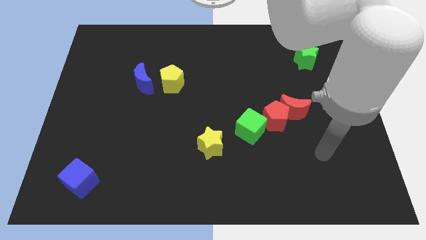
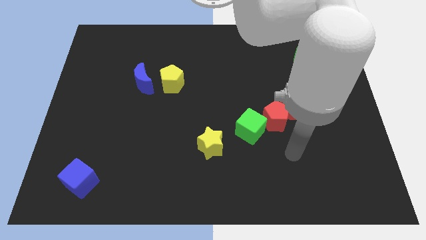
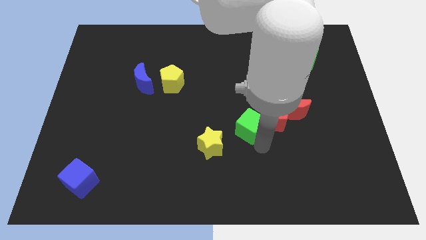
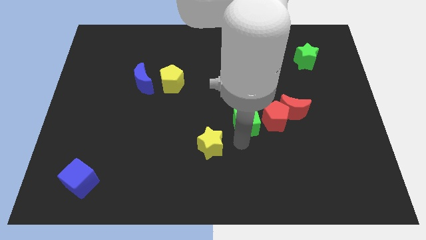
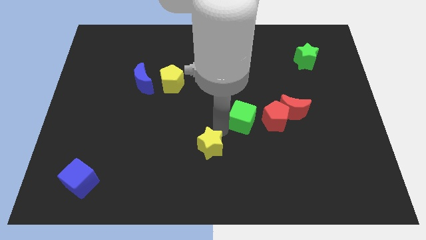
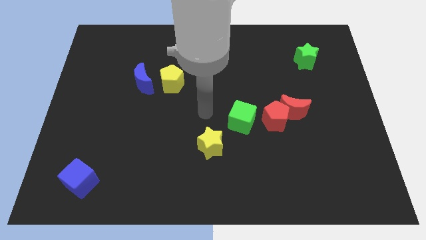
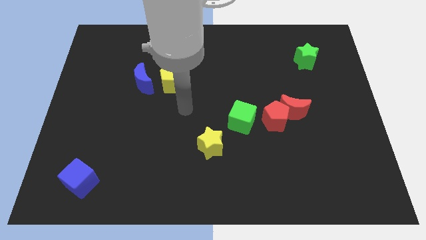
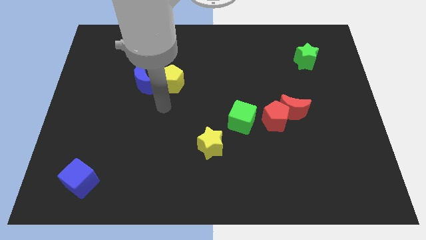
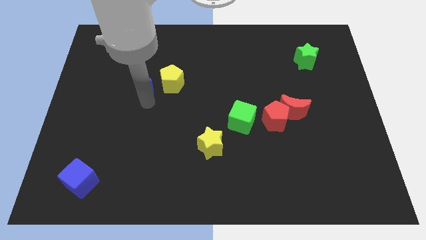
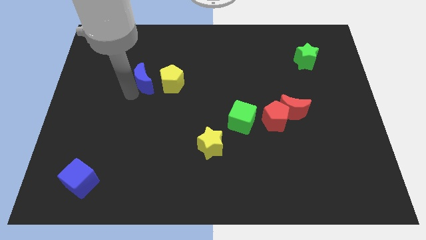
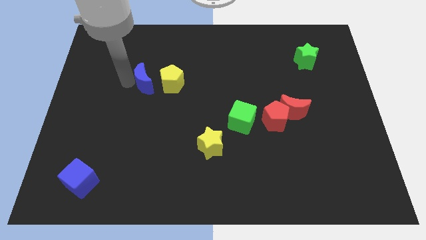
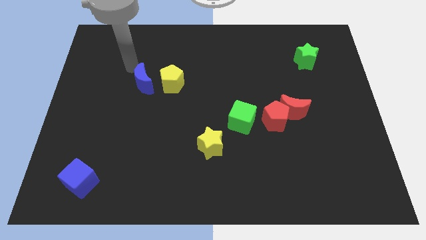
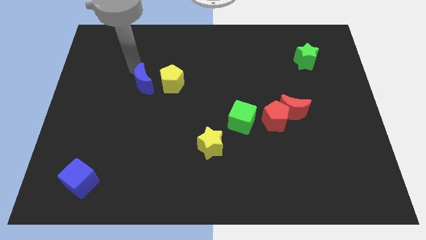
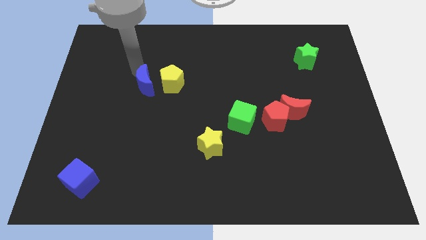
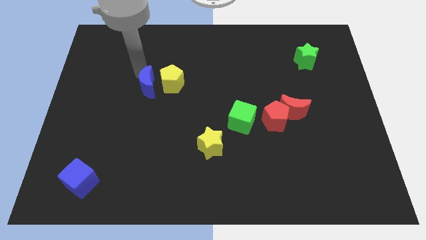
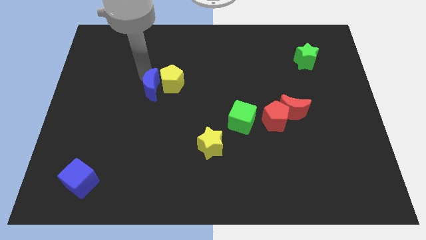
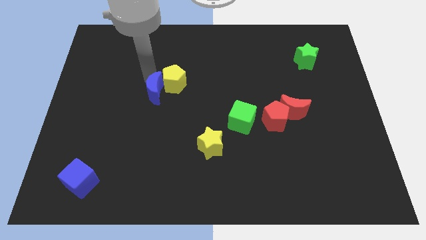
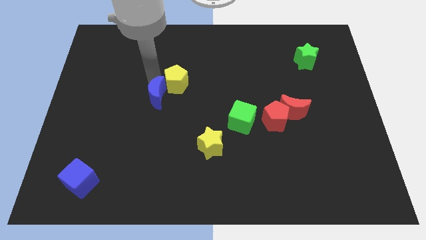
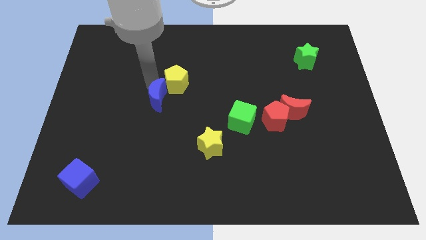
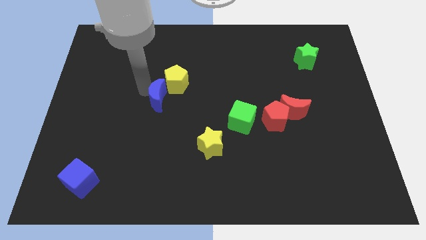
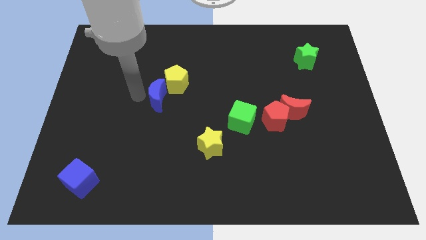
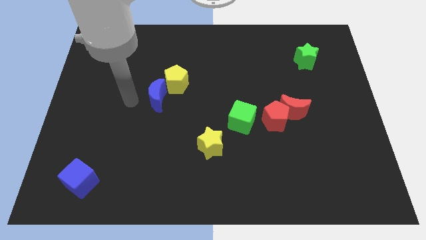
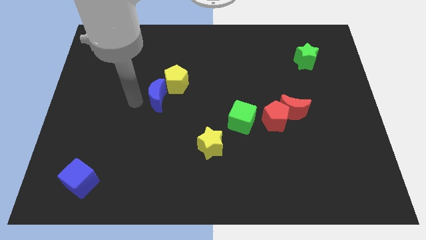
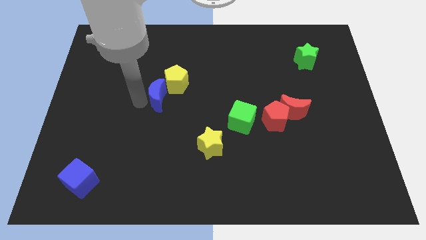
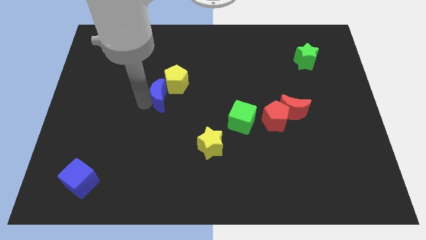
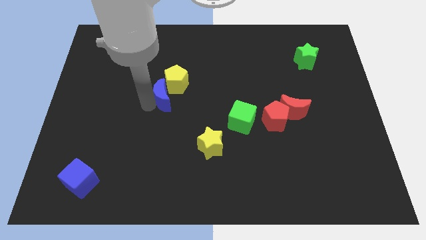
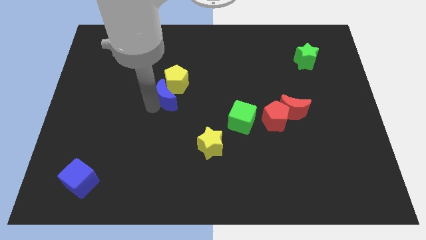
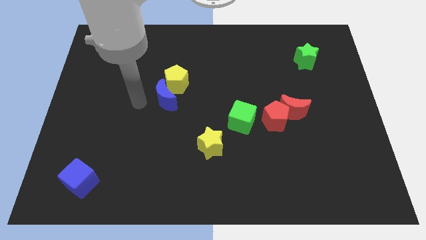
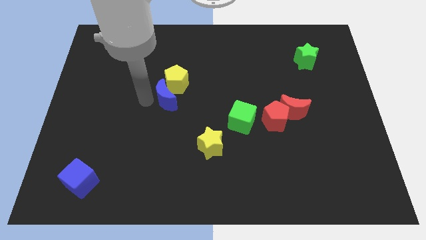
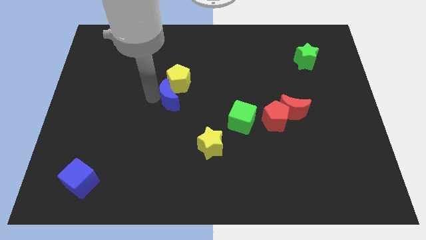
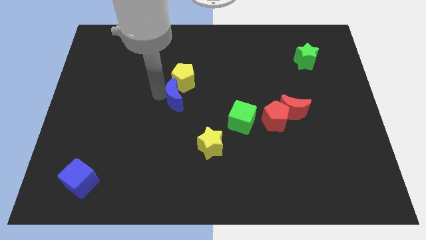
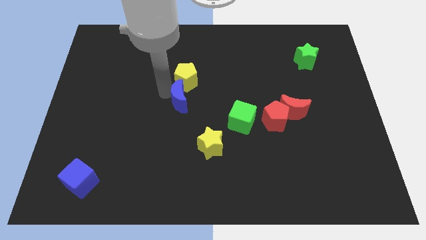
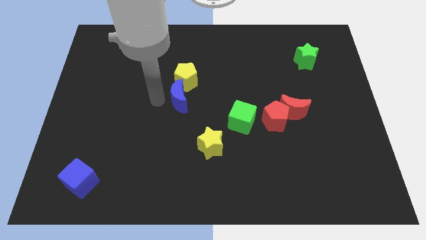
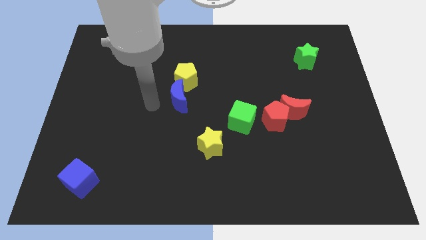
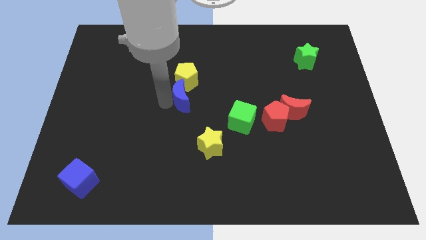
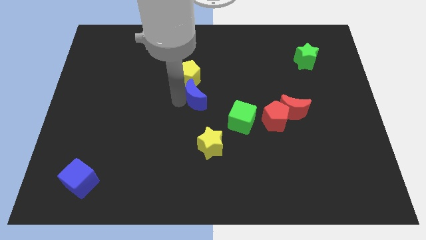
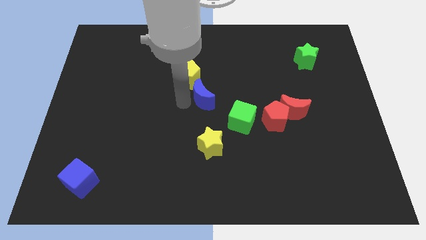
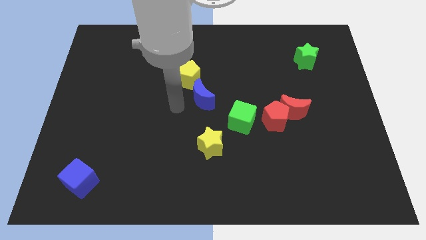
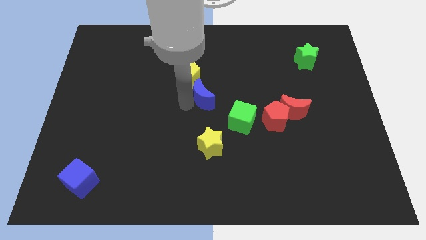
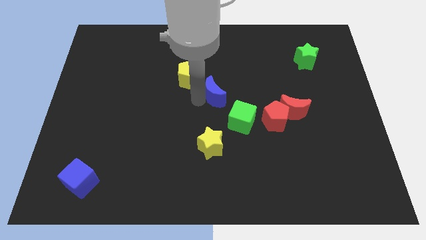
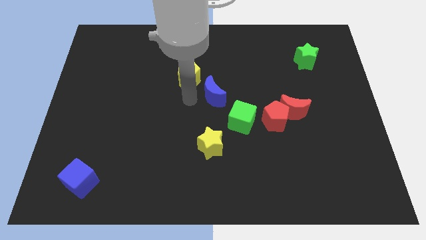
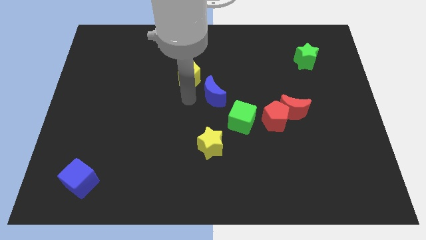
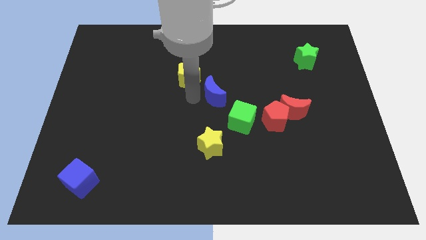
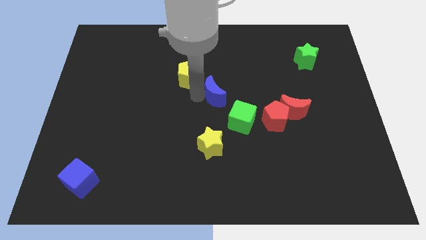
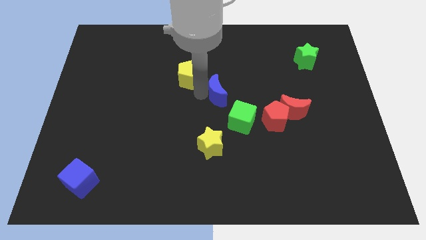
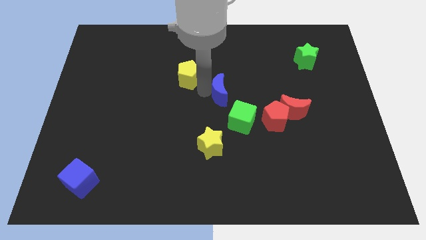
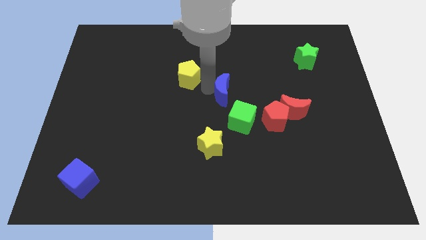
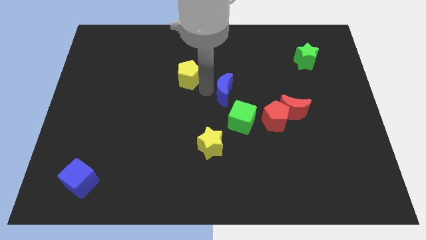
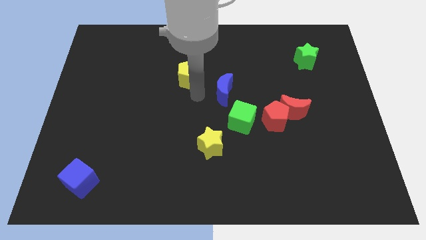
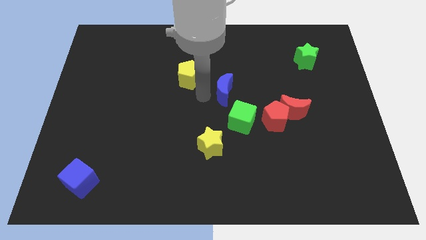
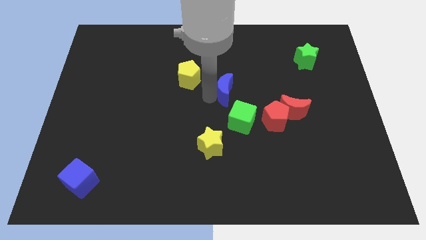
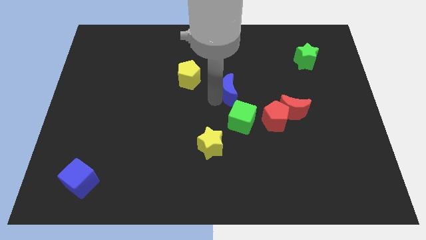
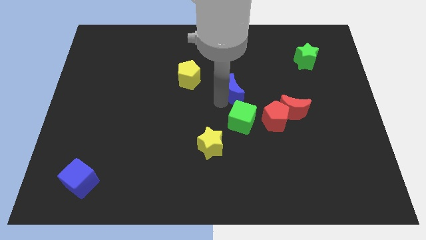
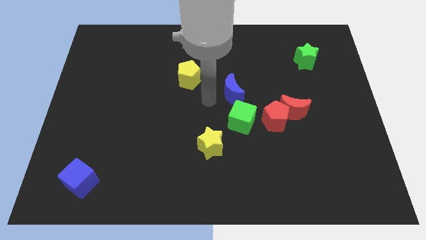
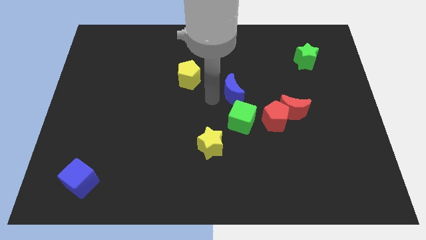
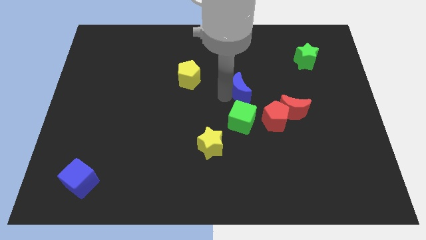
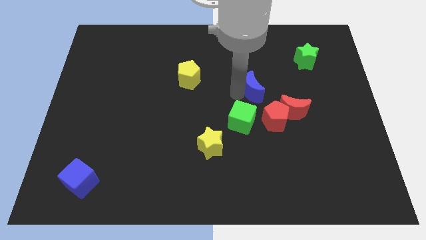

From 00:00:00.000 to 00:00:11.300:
put the blue moon above the red pentagon

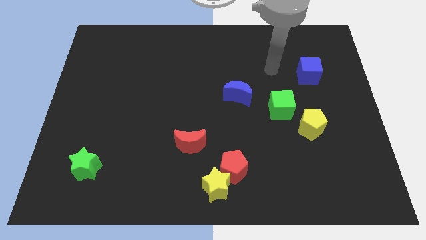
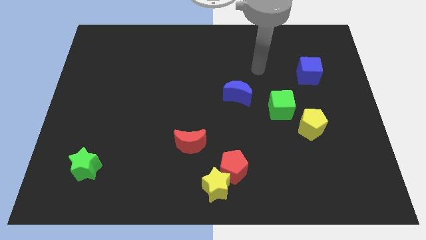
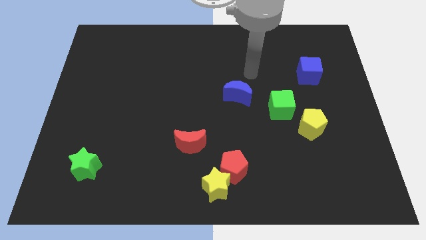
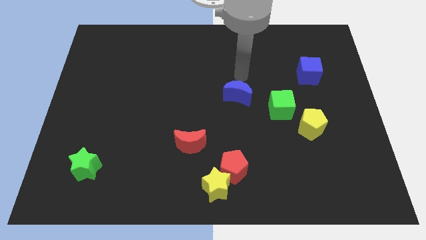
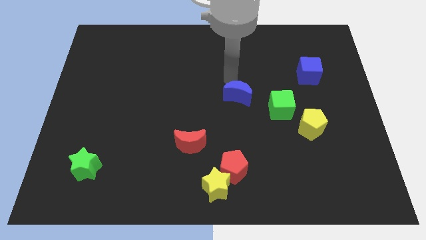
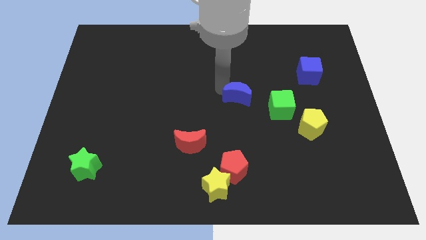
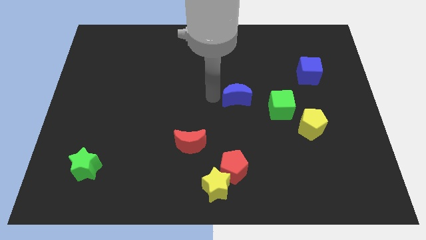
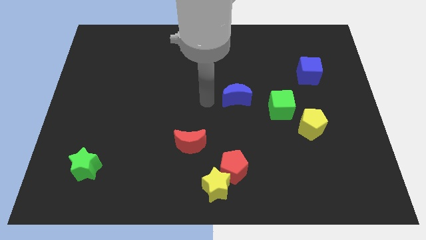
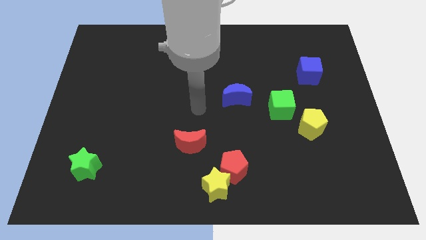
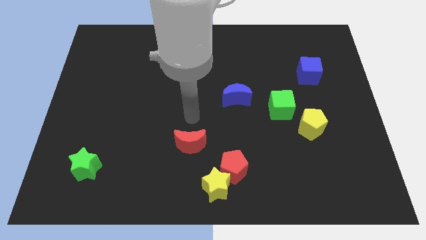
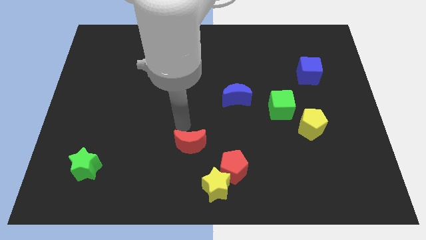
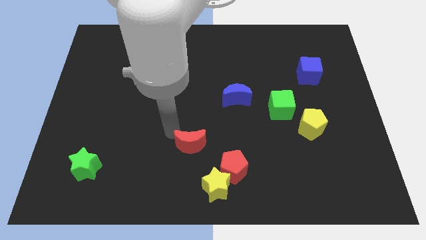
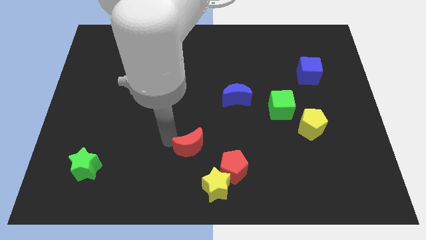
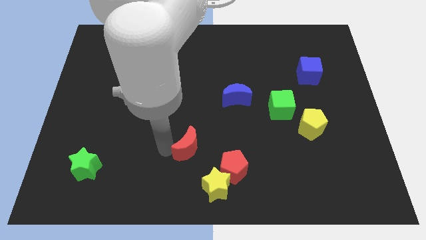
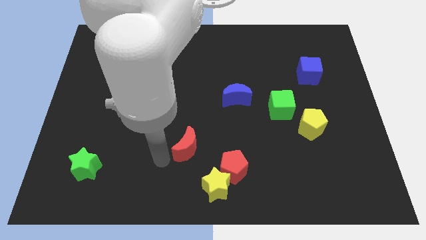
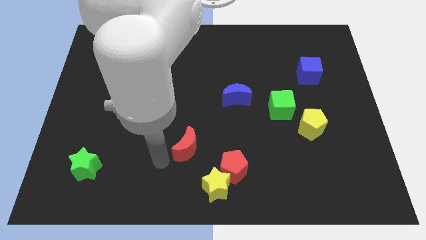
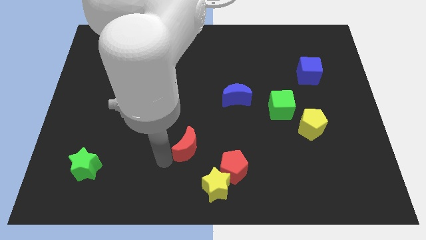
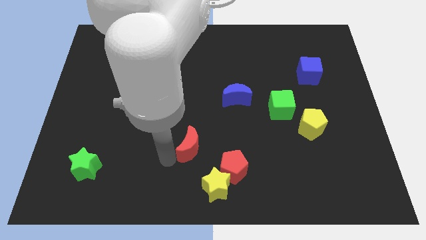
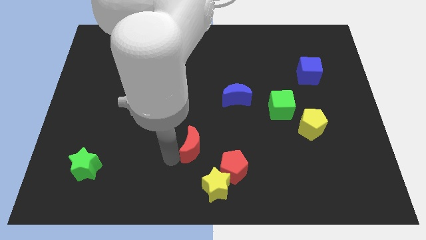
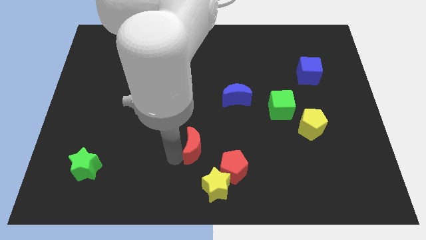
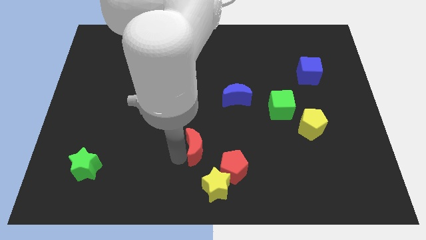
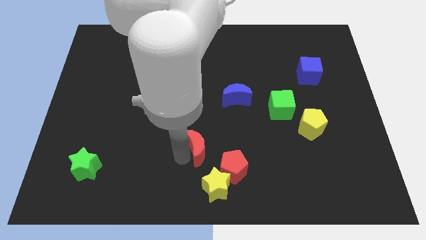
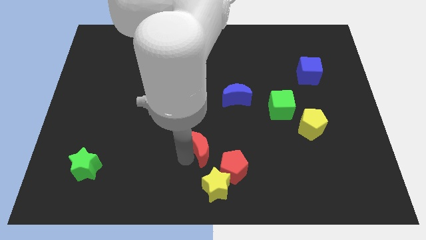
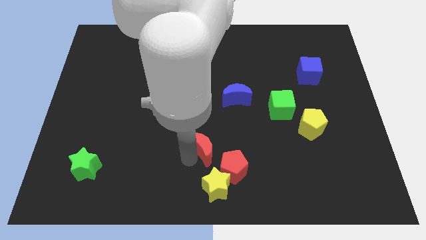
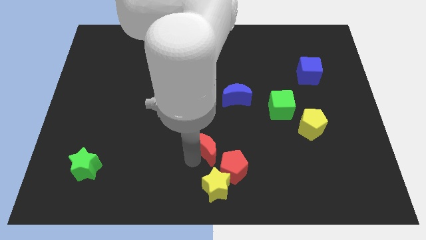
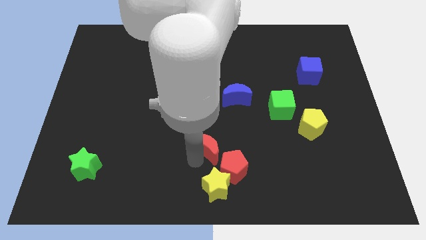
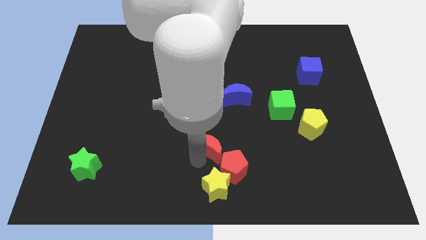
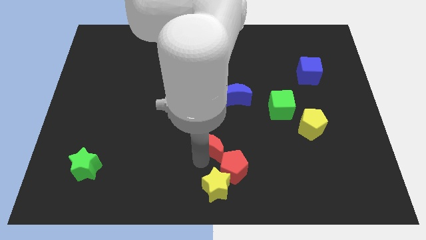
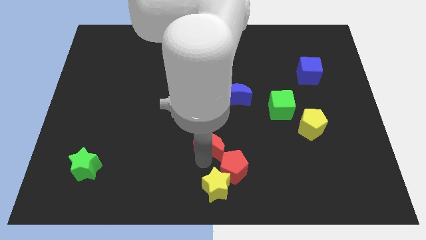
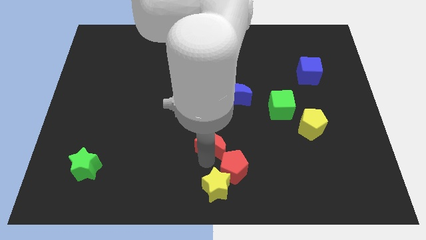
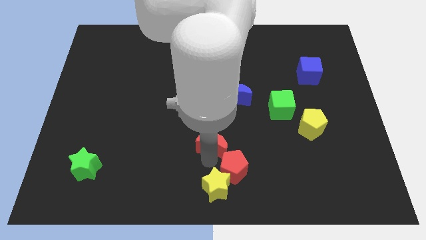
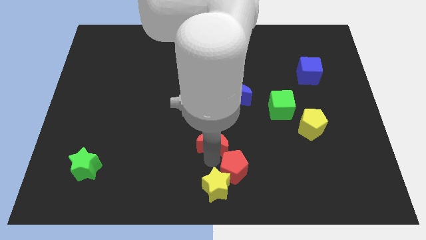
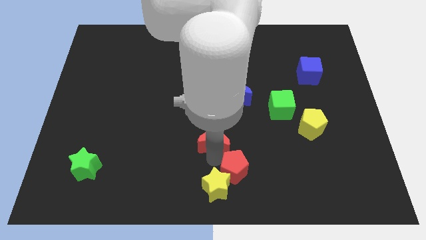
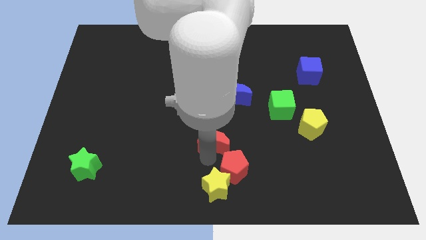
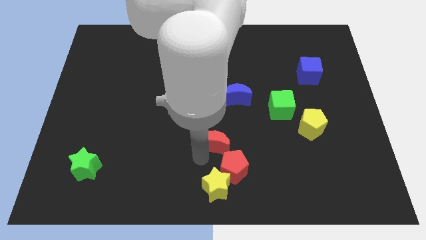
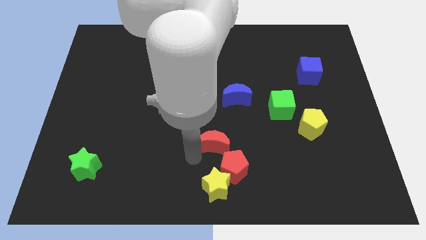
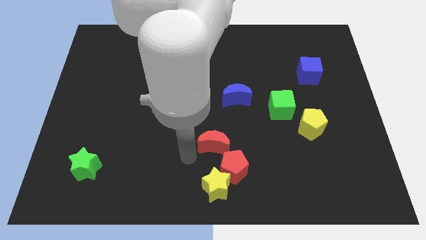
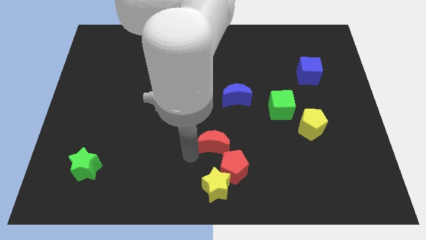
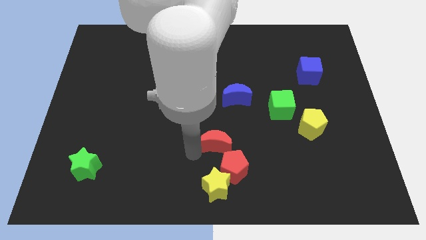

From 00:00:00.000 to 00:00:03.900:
slide the red moon to the bottom side of the blue moon
